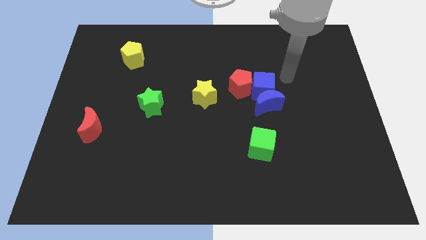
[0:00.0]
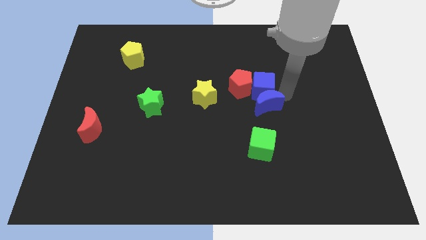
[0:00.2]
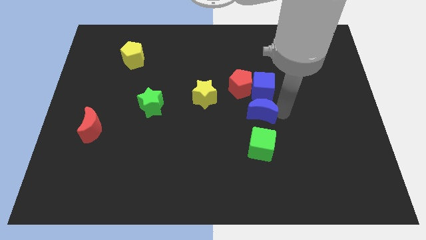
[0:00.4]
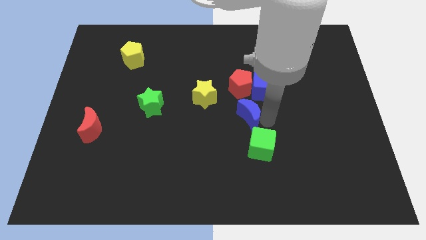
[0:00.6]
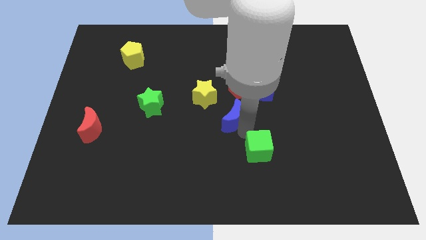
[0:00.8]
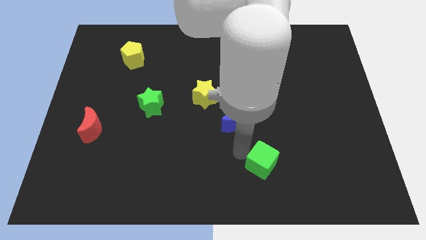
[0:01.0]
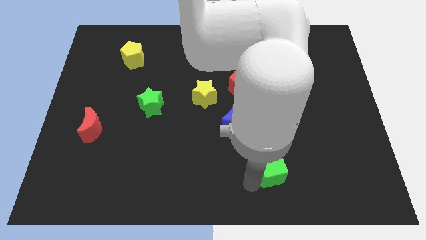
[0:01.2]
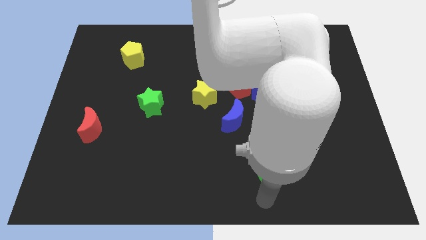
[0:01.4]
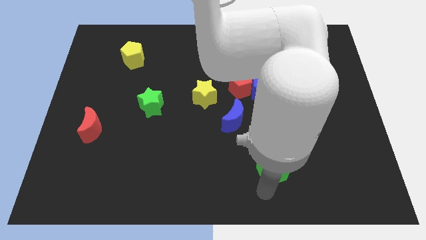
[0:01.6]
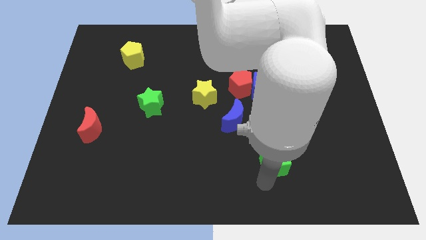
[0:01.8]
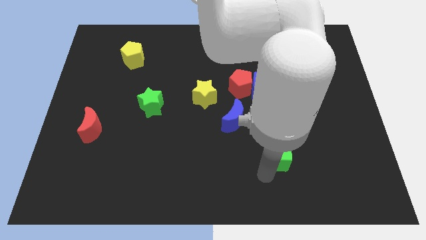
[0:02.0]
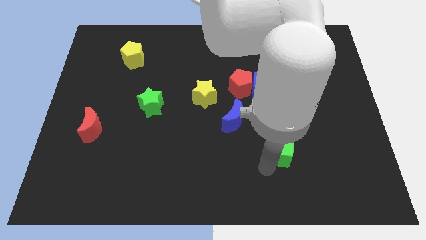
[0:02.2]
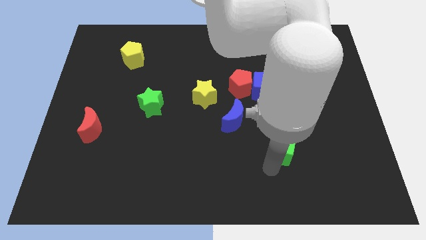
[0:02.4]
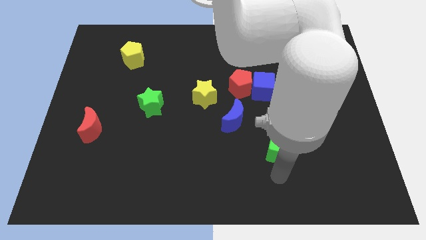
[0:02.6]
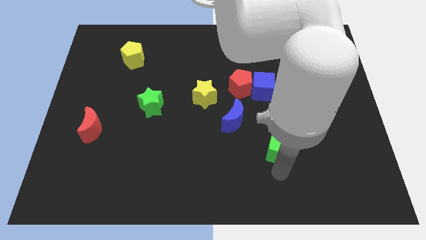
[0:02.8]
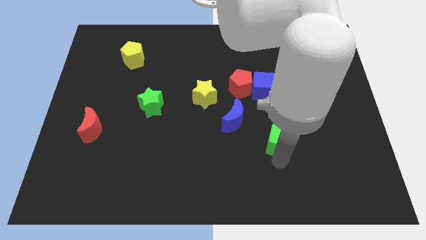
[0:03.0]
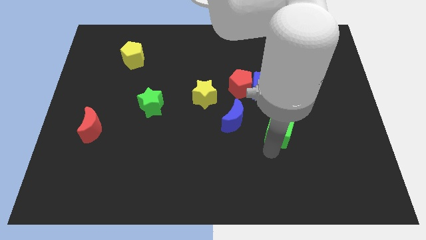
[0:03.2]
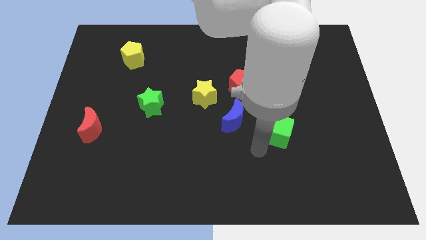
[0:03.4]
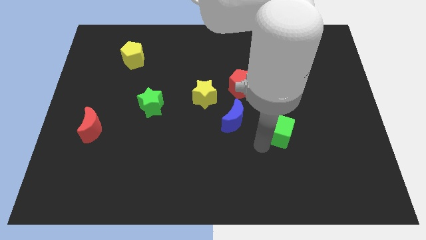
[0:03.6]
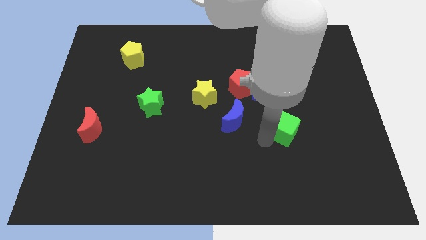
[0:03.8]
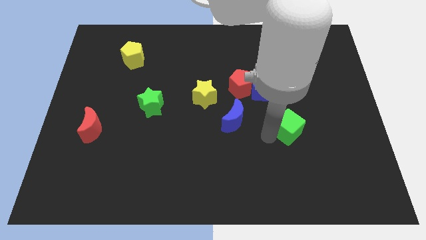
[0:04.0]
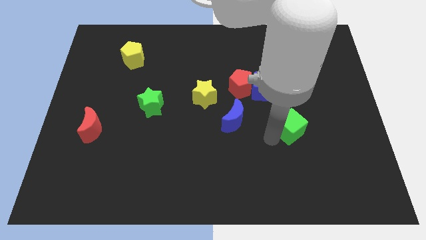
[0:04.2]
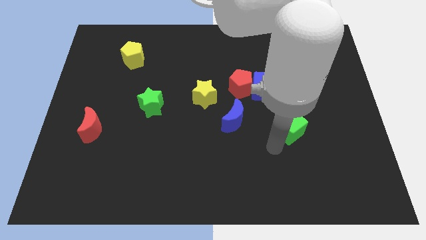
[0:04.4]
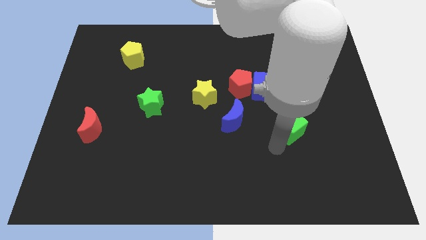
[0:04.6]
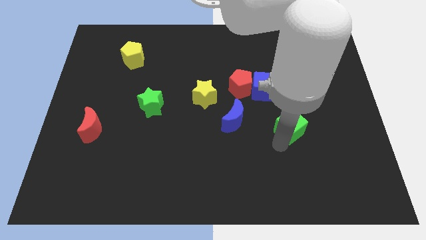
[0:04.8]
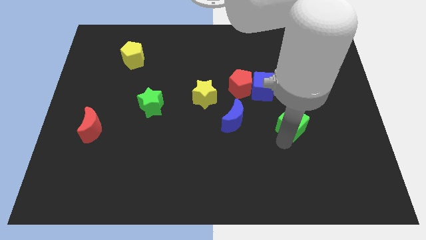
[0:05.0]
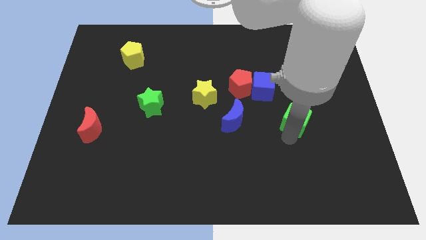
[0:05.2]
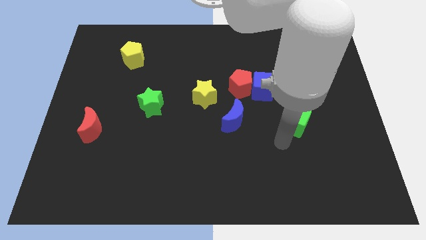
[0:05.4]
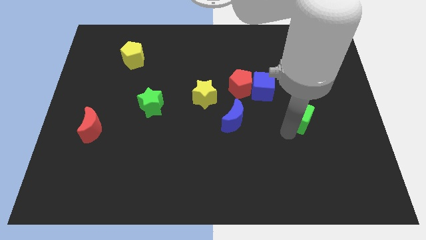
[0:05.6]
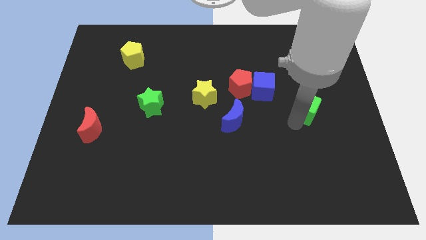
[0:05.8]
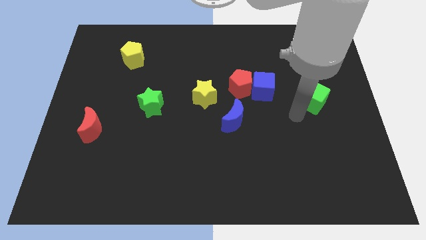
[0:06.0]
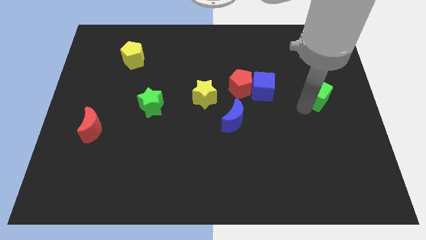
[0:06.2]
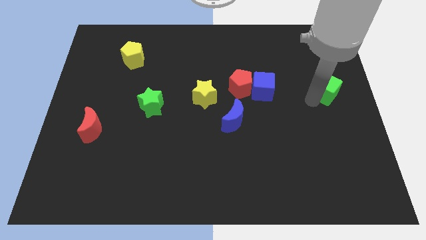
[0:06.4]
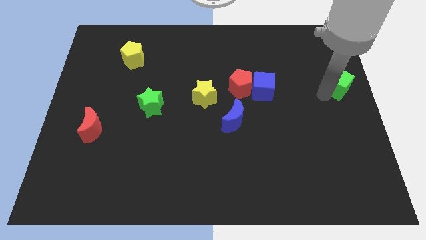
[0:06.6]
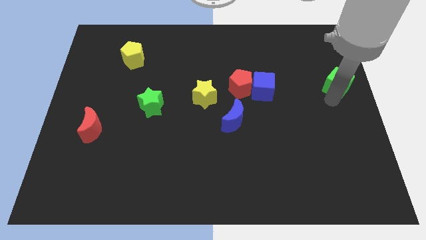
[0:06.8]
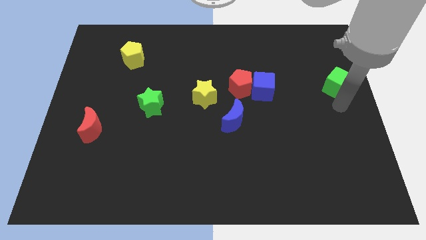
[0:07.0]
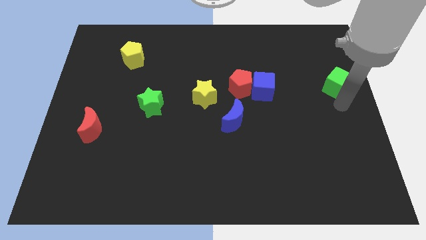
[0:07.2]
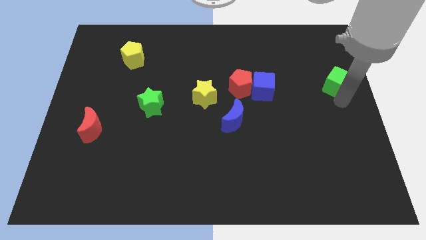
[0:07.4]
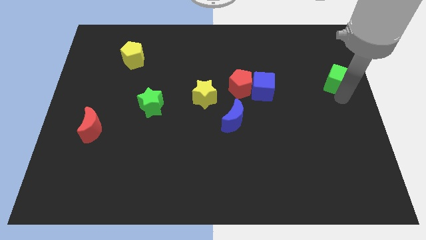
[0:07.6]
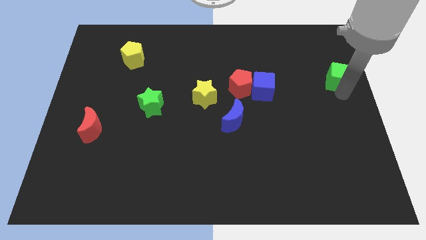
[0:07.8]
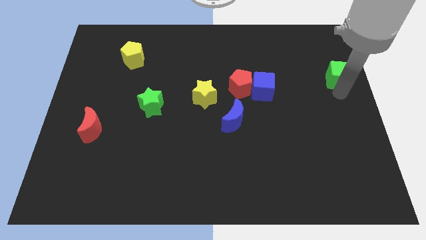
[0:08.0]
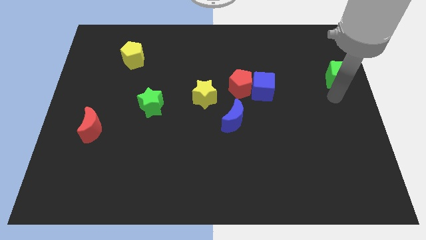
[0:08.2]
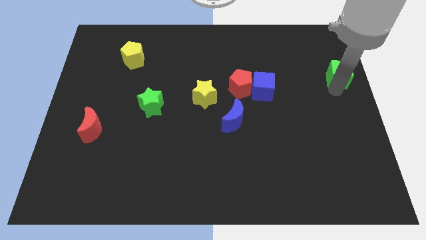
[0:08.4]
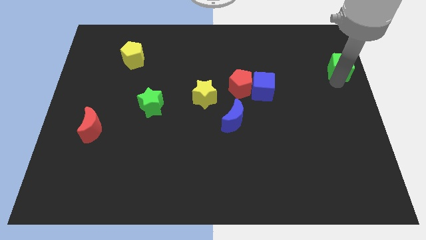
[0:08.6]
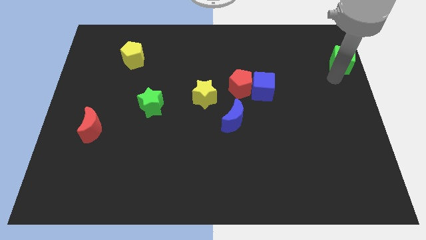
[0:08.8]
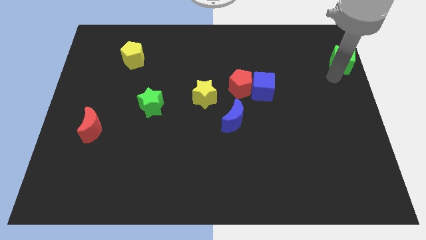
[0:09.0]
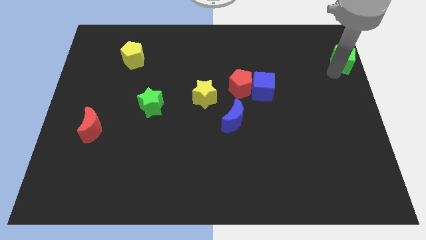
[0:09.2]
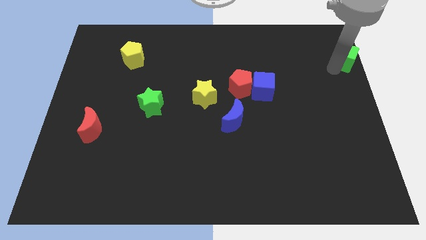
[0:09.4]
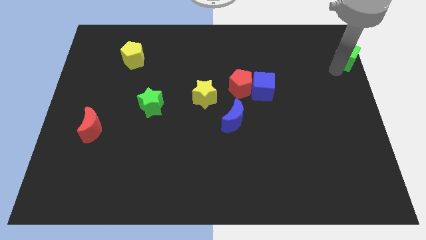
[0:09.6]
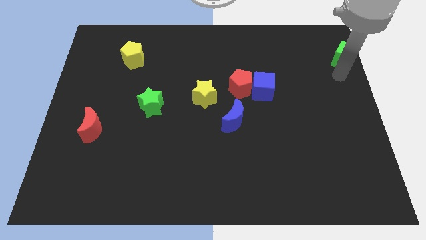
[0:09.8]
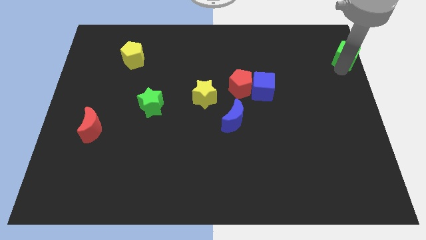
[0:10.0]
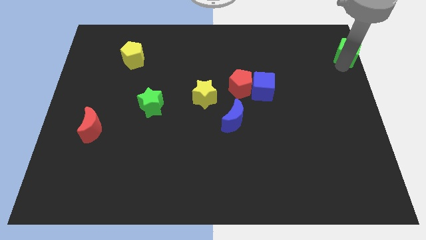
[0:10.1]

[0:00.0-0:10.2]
push the green cube to the top right

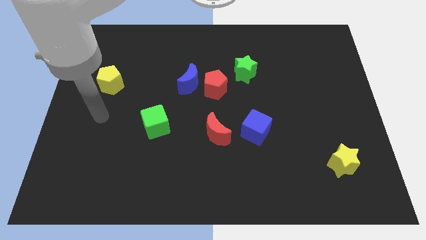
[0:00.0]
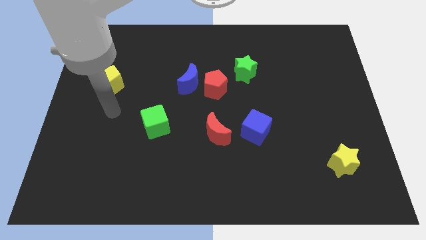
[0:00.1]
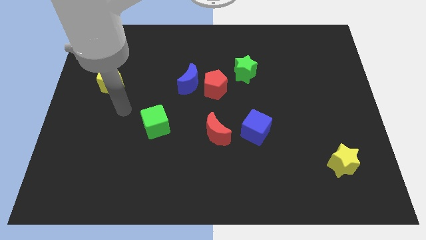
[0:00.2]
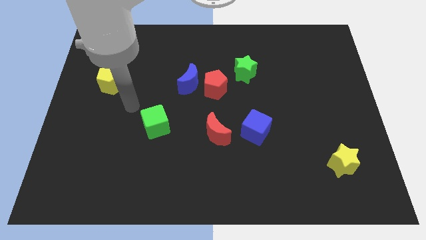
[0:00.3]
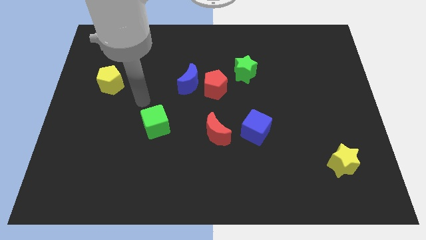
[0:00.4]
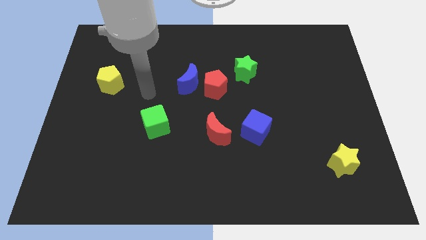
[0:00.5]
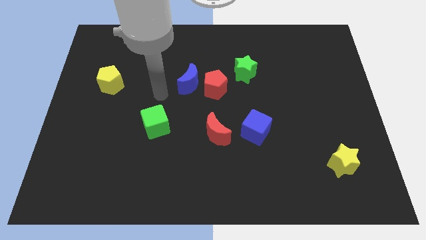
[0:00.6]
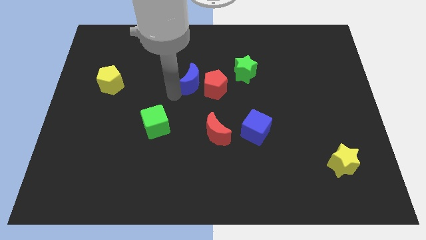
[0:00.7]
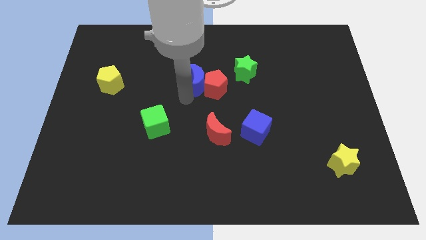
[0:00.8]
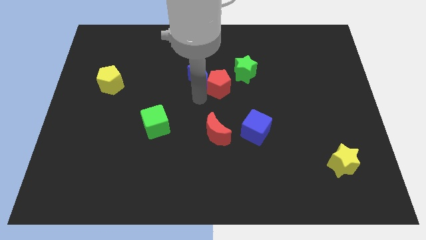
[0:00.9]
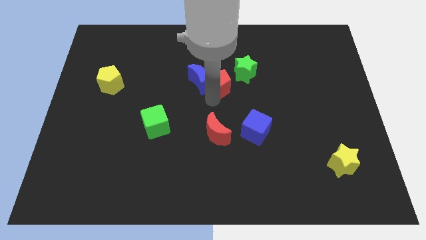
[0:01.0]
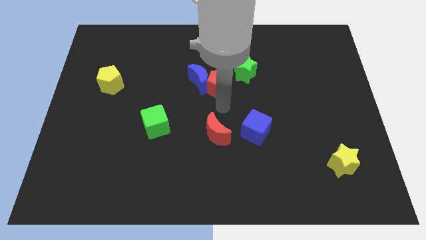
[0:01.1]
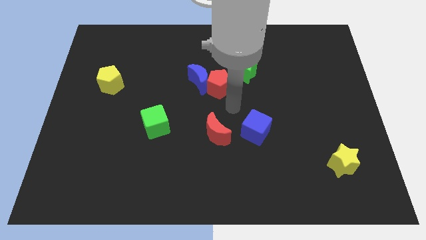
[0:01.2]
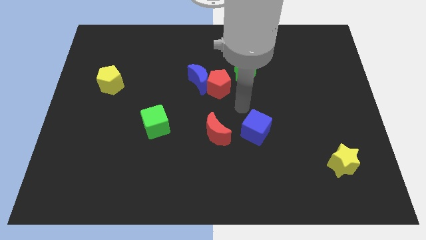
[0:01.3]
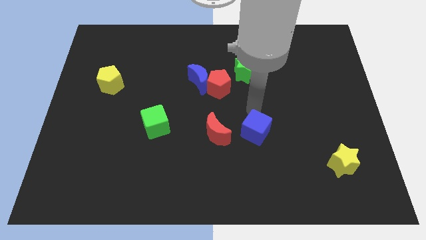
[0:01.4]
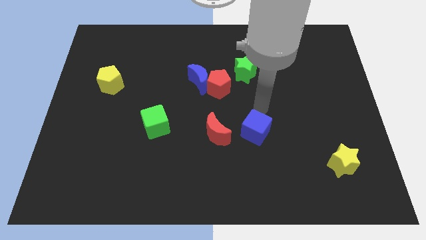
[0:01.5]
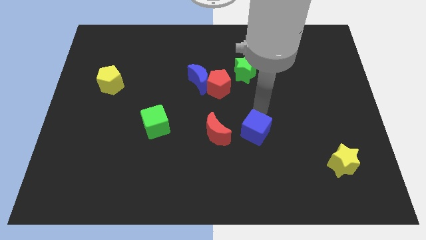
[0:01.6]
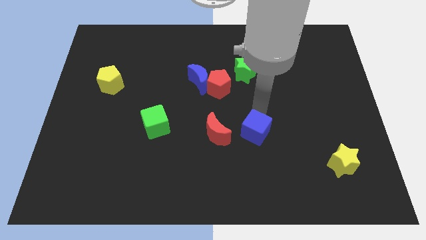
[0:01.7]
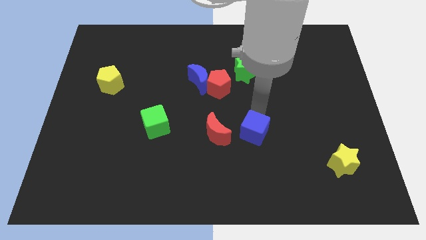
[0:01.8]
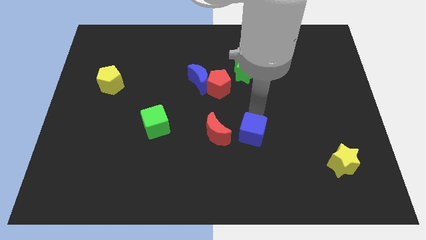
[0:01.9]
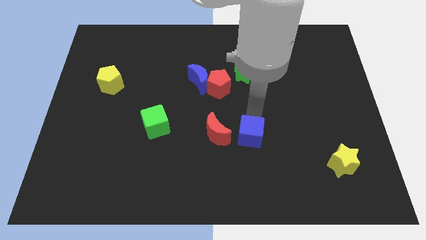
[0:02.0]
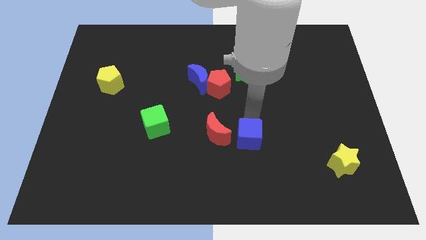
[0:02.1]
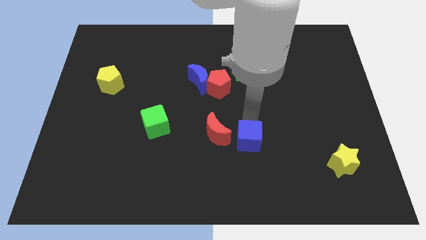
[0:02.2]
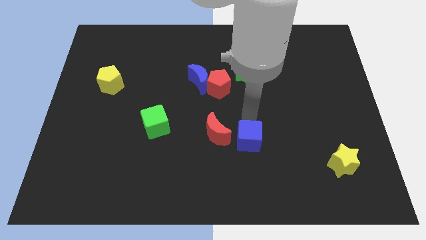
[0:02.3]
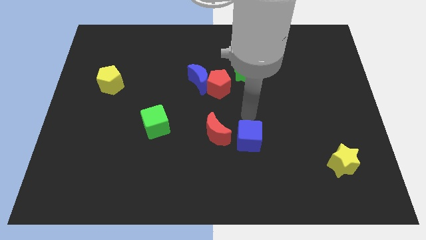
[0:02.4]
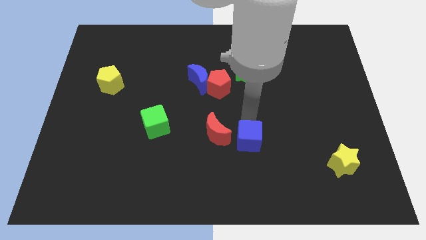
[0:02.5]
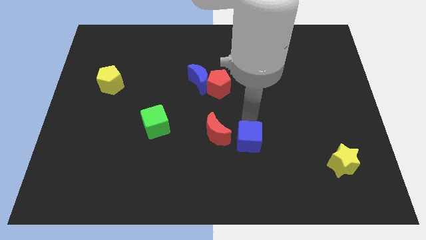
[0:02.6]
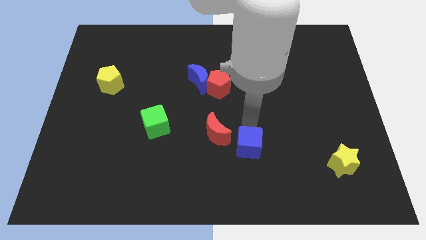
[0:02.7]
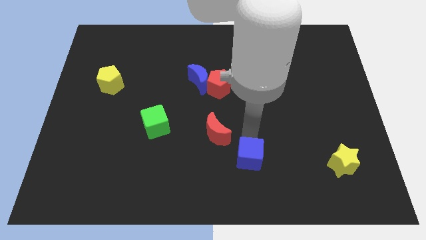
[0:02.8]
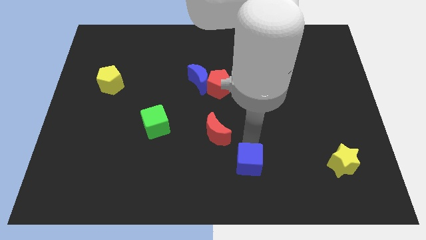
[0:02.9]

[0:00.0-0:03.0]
slide the blue cube to the bottom side
